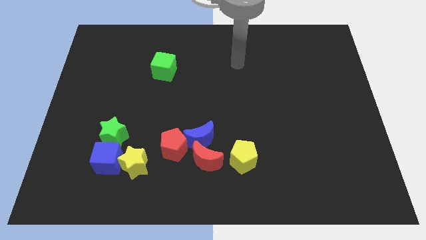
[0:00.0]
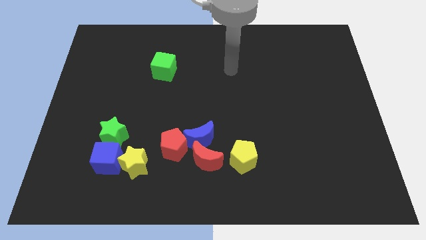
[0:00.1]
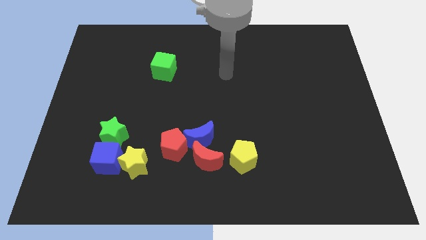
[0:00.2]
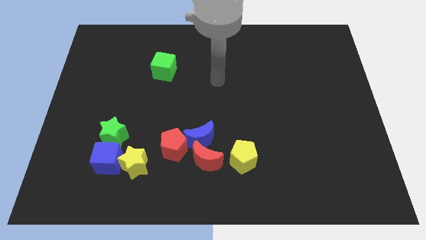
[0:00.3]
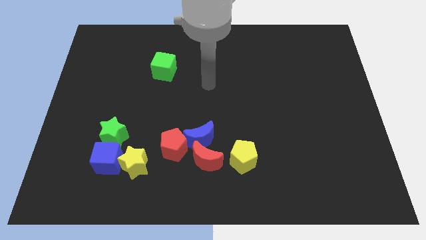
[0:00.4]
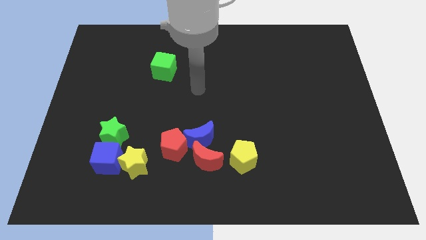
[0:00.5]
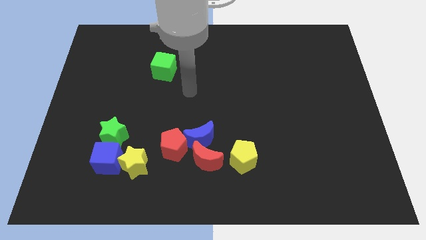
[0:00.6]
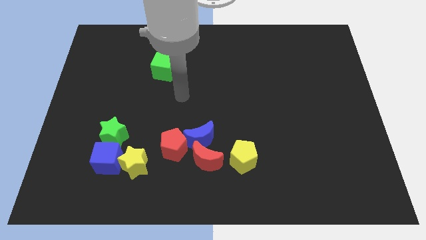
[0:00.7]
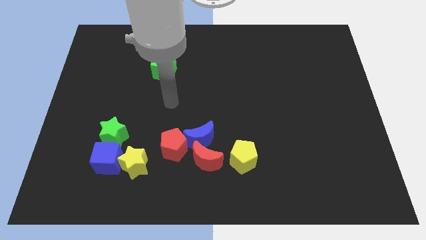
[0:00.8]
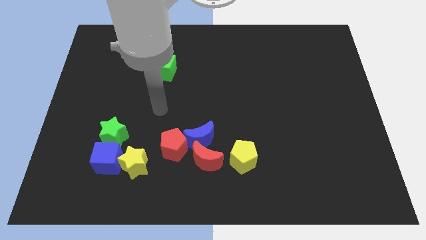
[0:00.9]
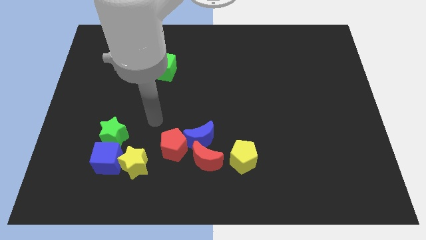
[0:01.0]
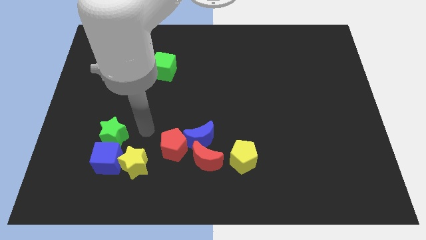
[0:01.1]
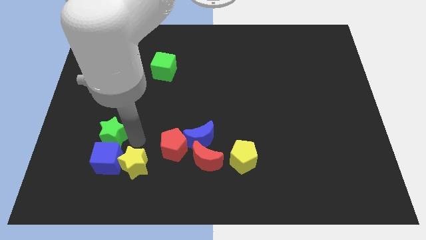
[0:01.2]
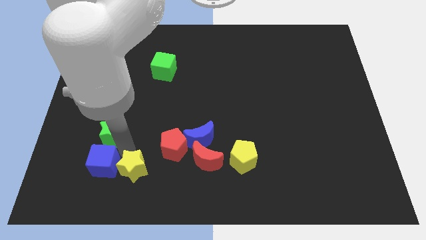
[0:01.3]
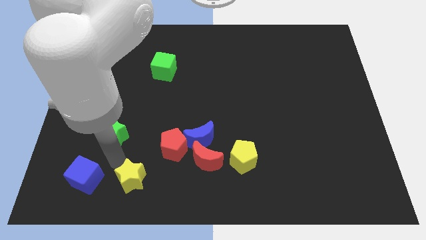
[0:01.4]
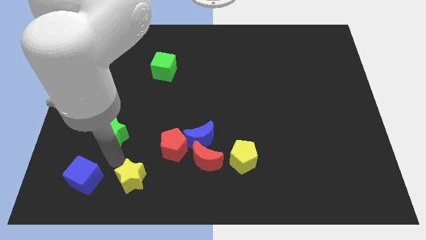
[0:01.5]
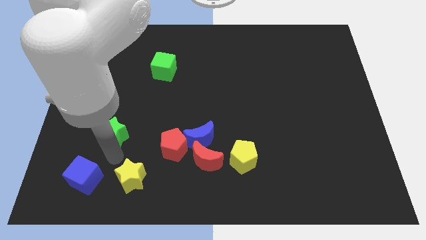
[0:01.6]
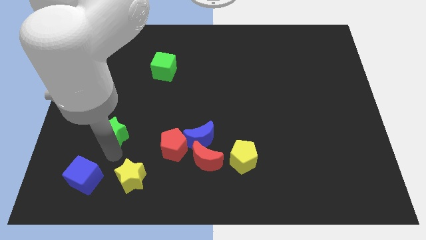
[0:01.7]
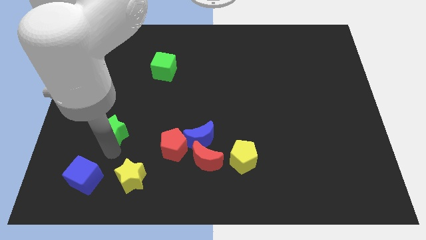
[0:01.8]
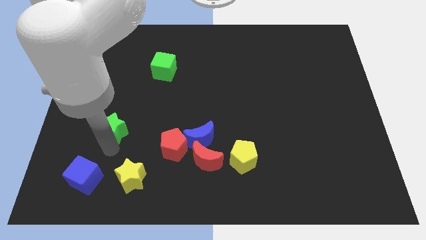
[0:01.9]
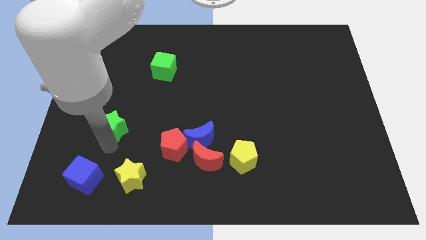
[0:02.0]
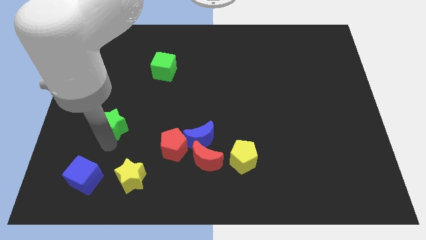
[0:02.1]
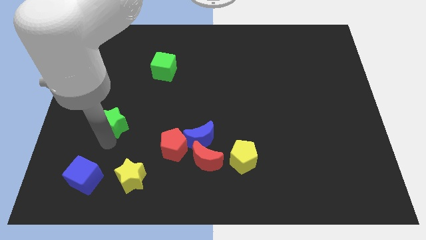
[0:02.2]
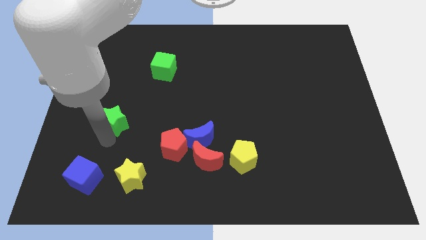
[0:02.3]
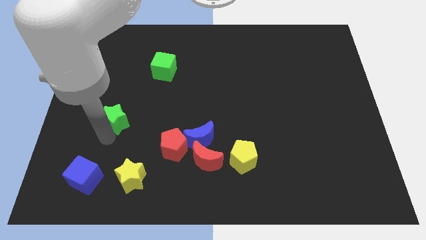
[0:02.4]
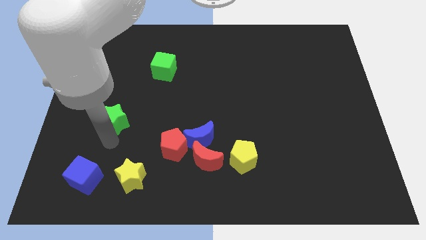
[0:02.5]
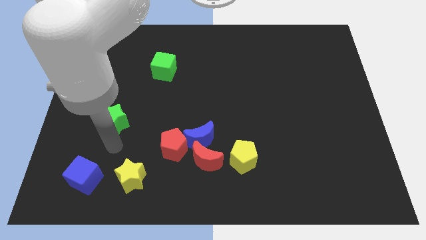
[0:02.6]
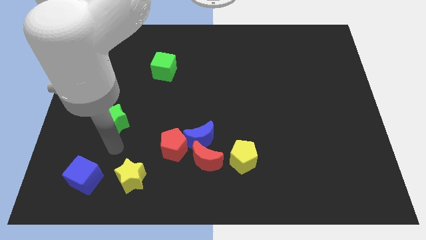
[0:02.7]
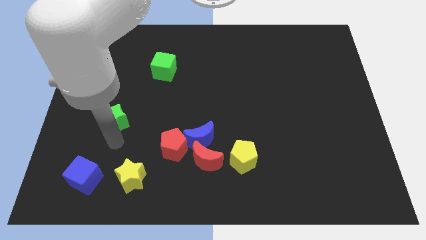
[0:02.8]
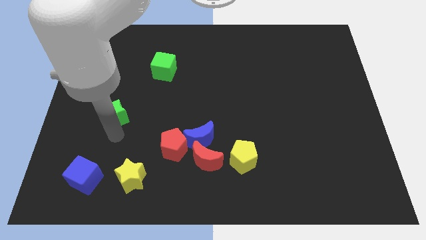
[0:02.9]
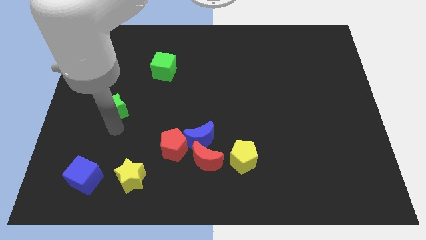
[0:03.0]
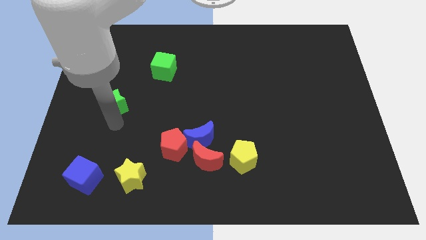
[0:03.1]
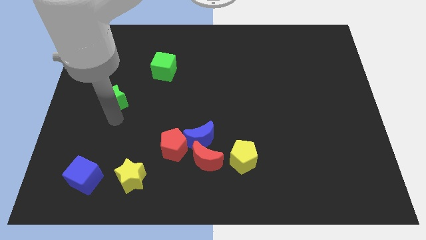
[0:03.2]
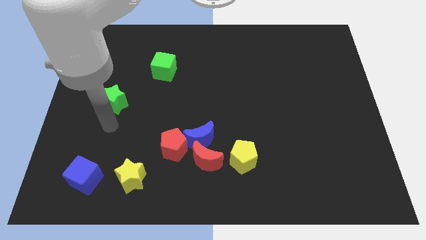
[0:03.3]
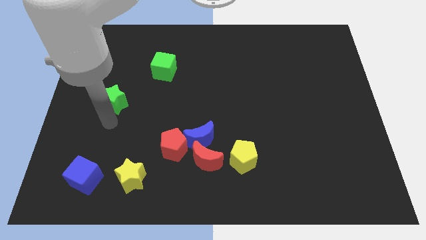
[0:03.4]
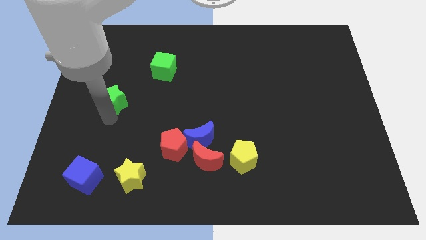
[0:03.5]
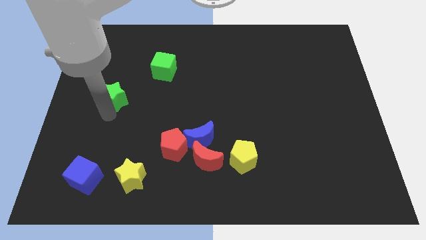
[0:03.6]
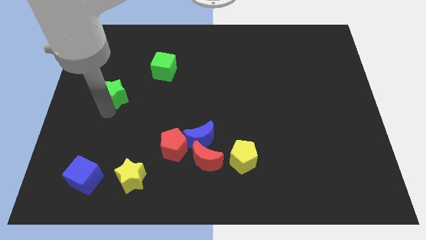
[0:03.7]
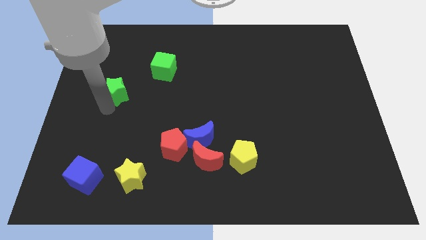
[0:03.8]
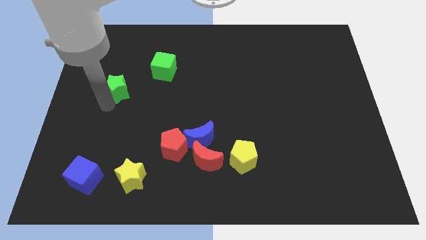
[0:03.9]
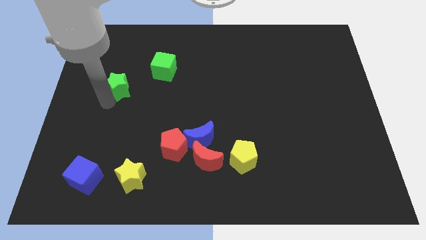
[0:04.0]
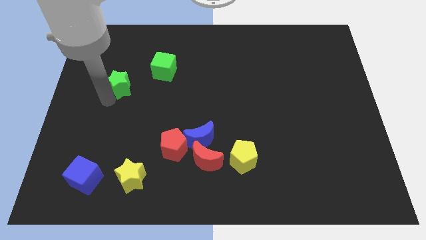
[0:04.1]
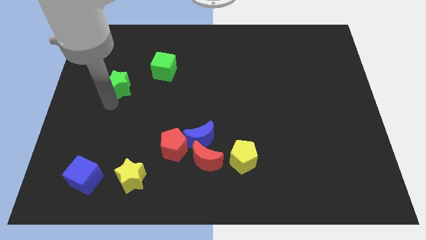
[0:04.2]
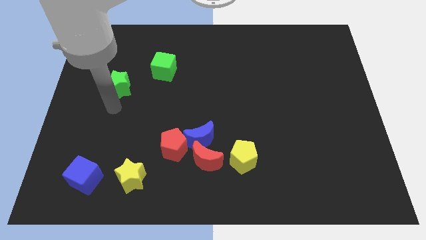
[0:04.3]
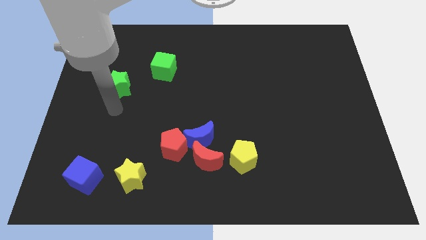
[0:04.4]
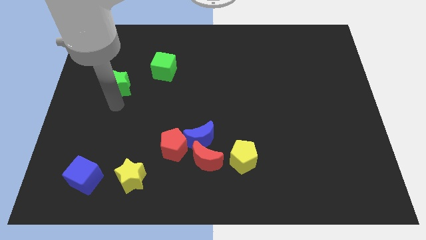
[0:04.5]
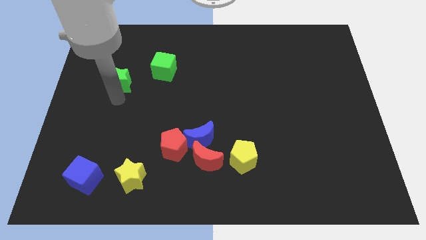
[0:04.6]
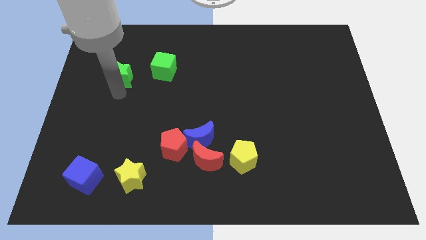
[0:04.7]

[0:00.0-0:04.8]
move the green star left of the green cube

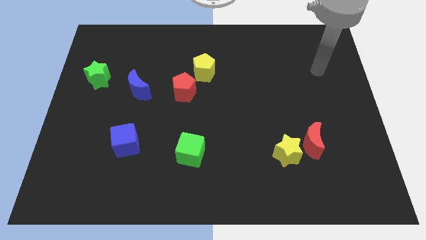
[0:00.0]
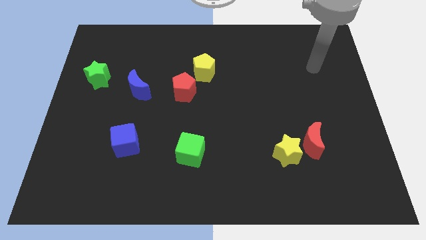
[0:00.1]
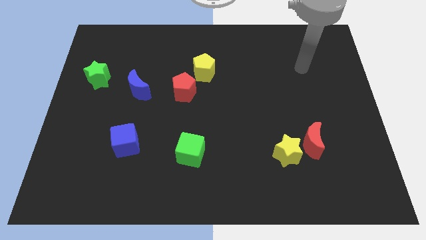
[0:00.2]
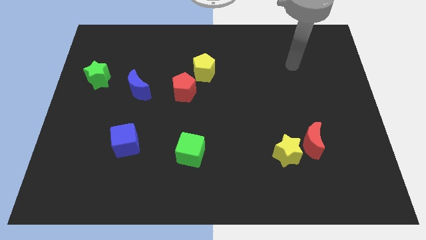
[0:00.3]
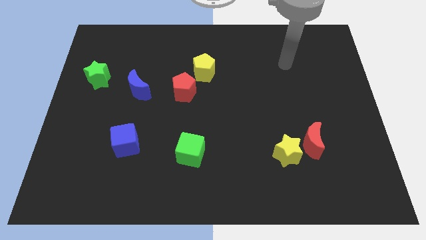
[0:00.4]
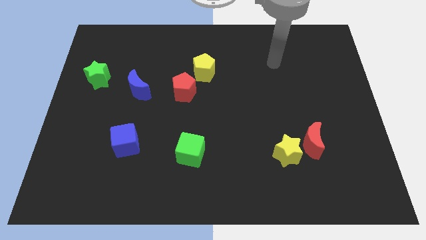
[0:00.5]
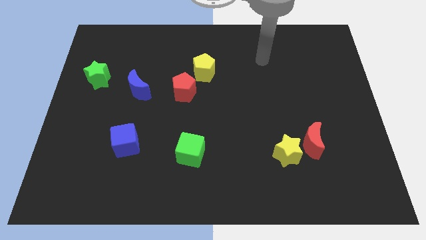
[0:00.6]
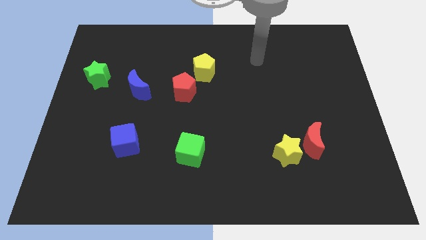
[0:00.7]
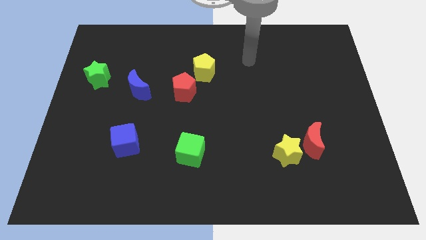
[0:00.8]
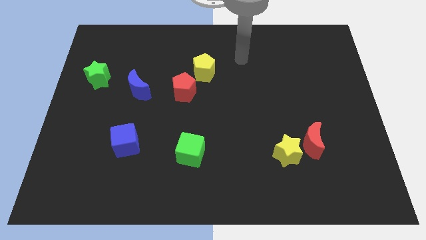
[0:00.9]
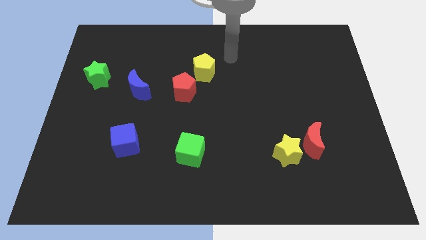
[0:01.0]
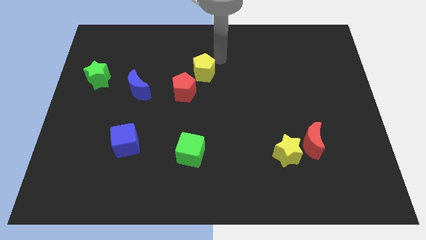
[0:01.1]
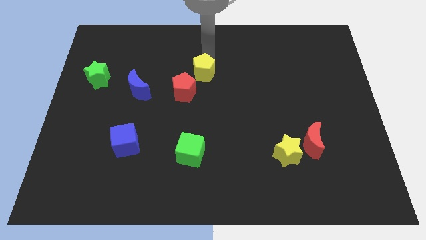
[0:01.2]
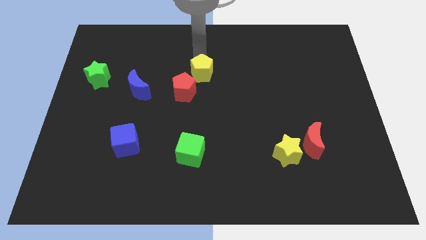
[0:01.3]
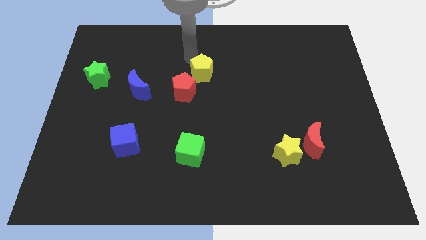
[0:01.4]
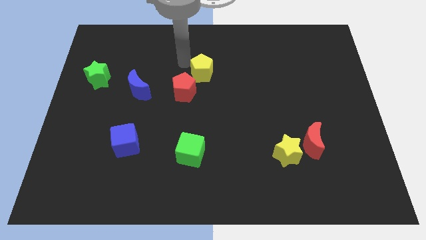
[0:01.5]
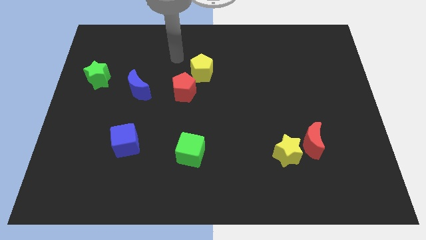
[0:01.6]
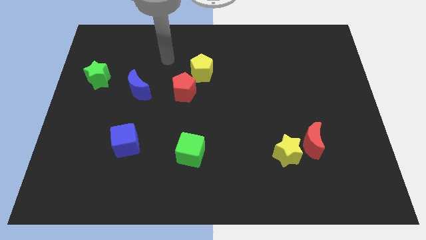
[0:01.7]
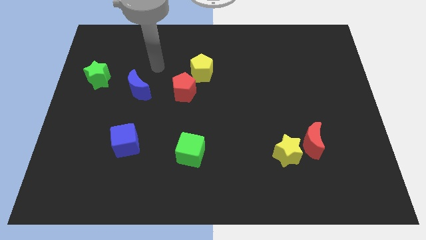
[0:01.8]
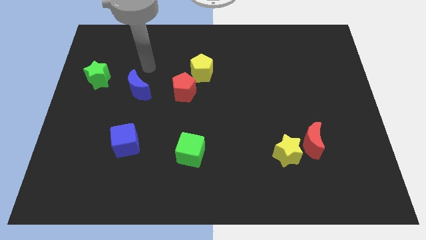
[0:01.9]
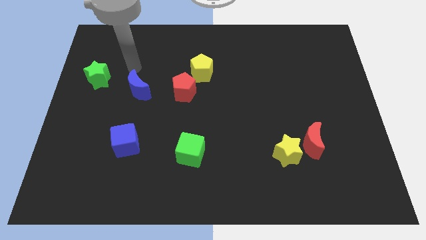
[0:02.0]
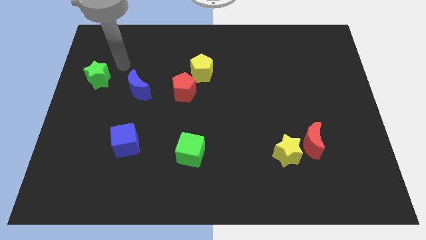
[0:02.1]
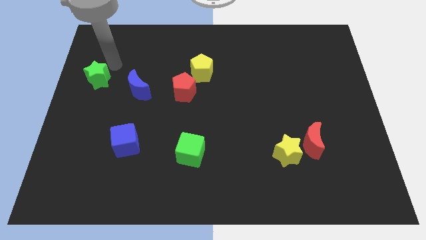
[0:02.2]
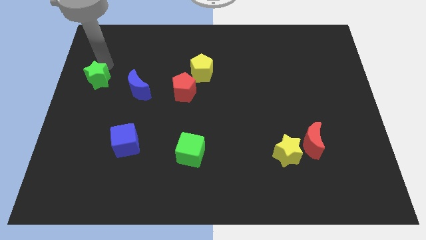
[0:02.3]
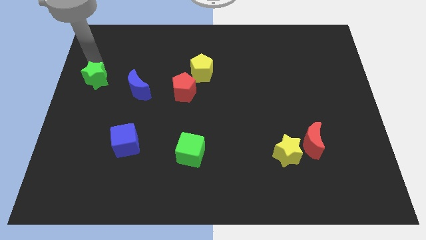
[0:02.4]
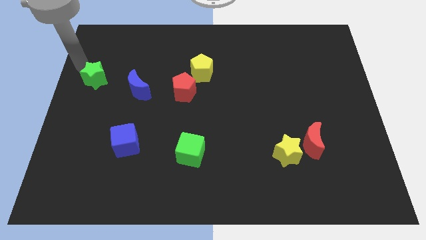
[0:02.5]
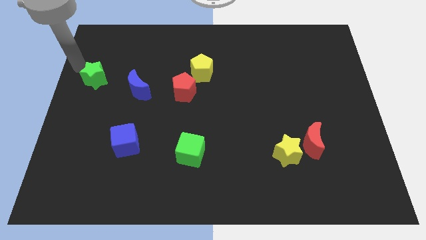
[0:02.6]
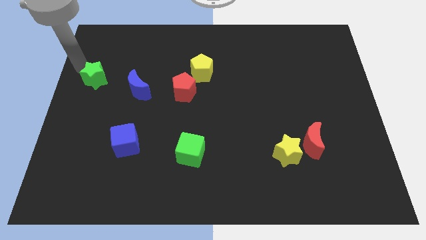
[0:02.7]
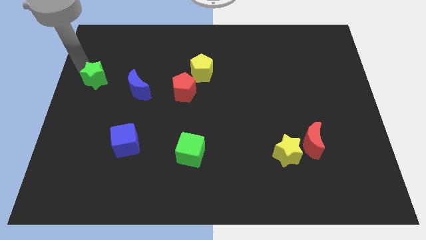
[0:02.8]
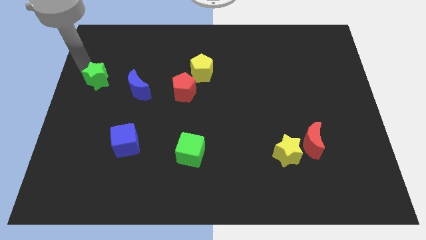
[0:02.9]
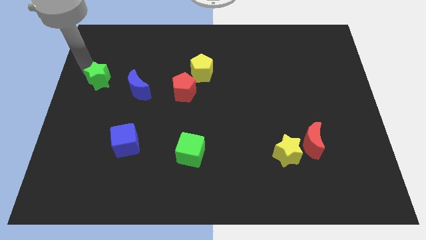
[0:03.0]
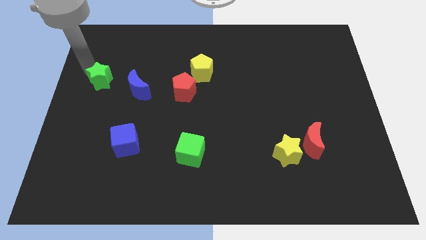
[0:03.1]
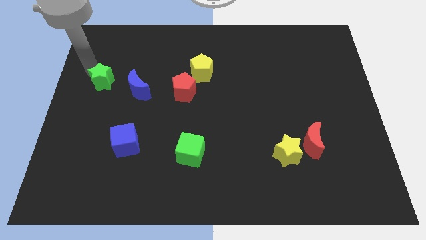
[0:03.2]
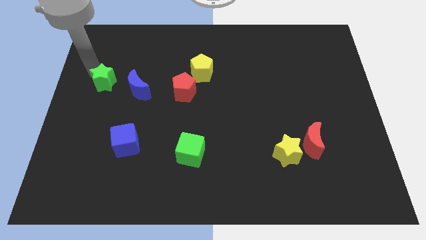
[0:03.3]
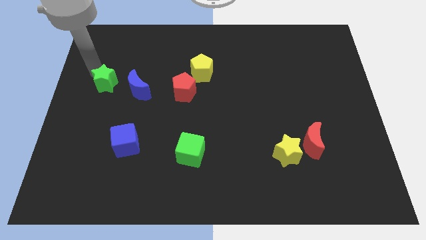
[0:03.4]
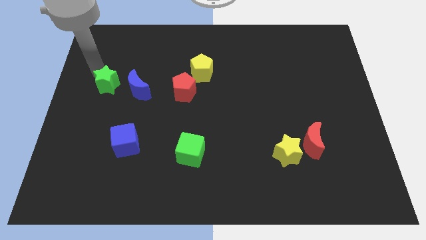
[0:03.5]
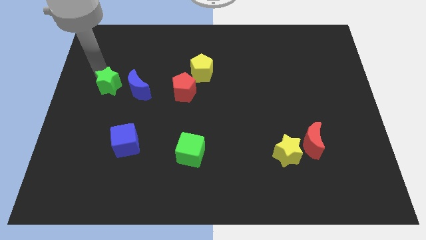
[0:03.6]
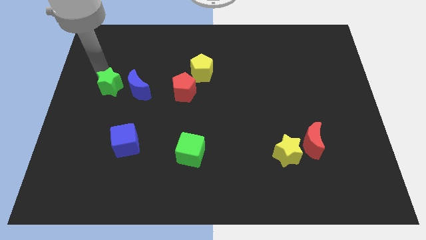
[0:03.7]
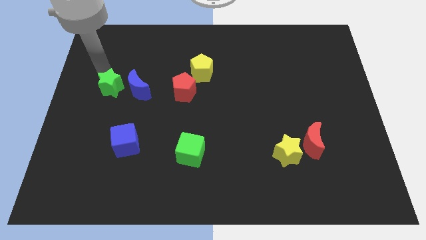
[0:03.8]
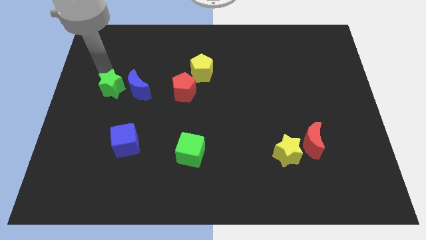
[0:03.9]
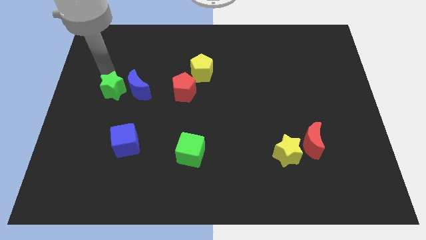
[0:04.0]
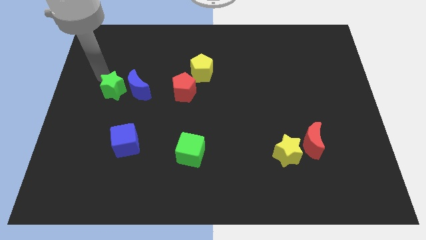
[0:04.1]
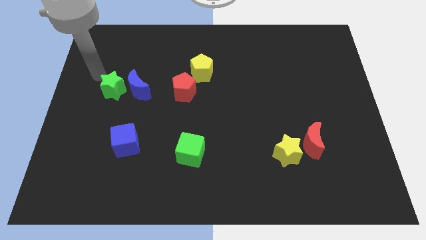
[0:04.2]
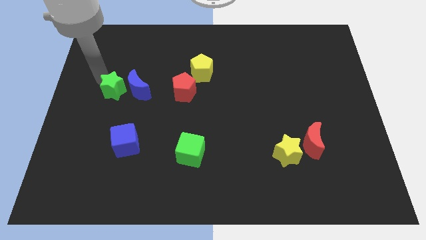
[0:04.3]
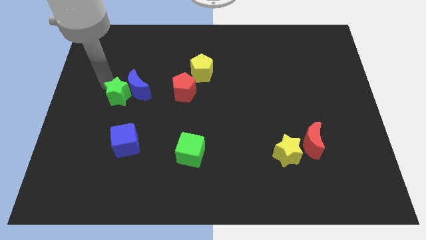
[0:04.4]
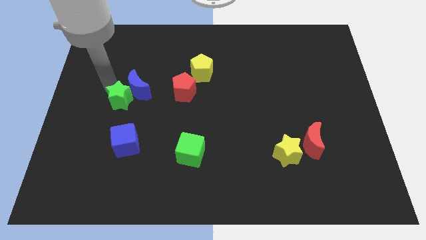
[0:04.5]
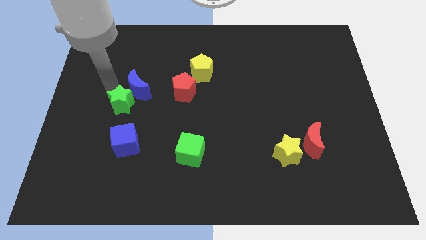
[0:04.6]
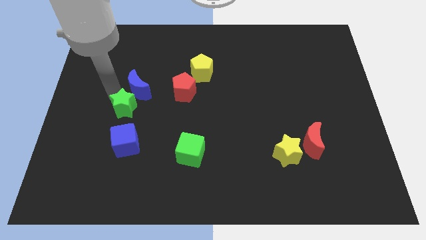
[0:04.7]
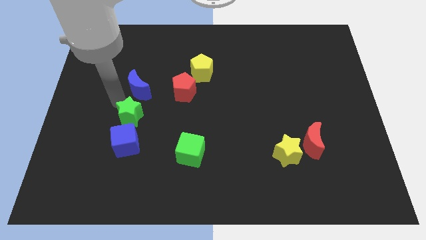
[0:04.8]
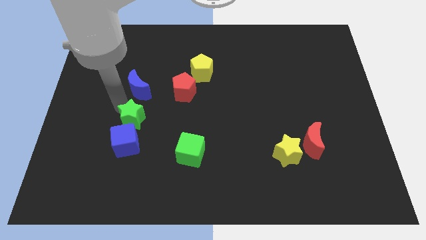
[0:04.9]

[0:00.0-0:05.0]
move the green star to the top right of the blue cube
